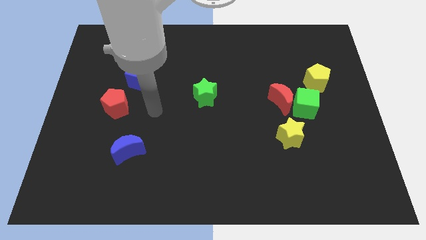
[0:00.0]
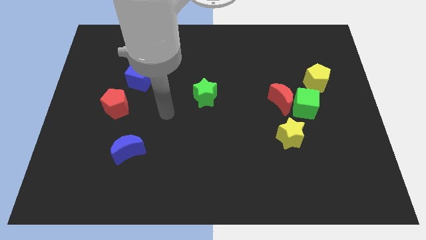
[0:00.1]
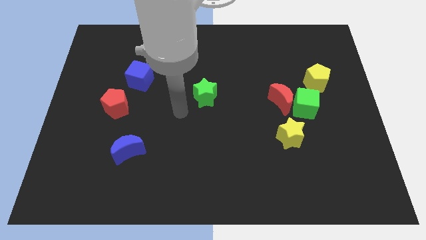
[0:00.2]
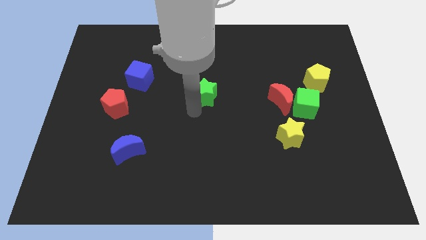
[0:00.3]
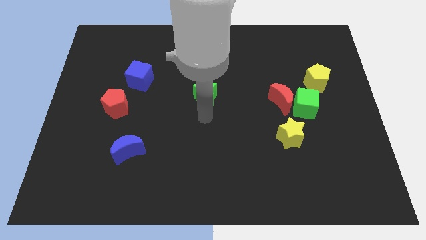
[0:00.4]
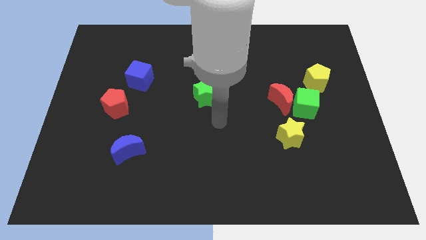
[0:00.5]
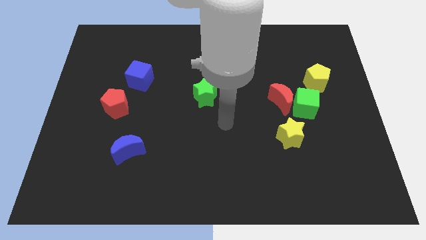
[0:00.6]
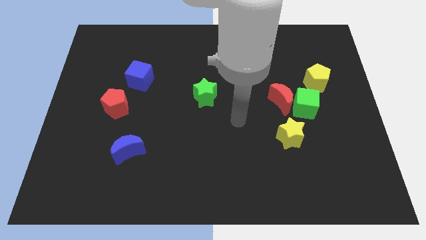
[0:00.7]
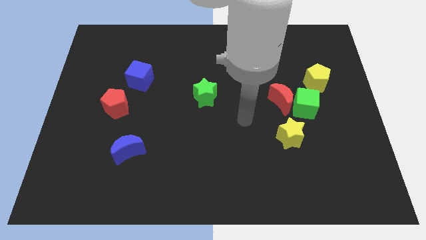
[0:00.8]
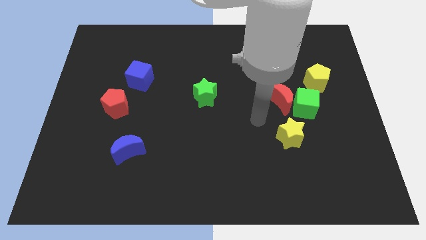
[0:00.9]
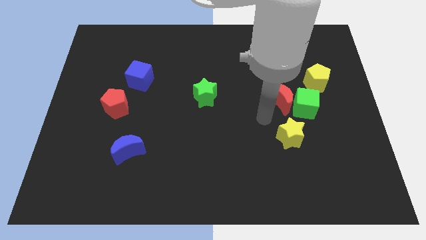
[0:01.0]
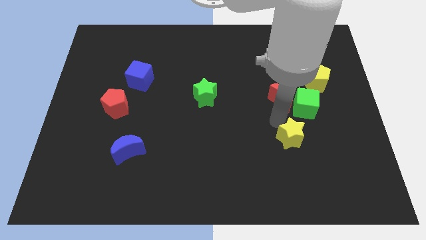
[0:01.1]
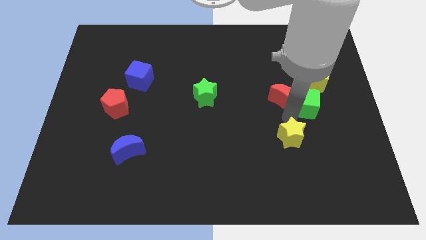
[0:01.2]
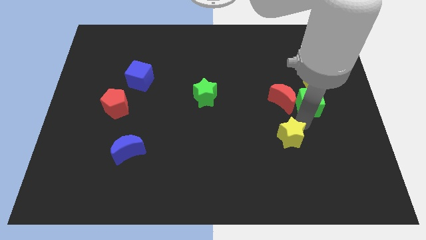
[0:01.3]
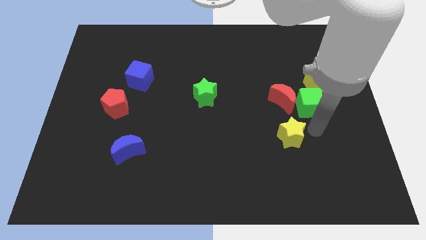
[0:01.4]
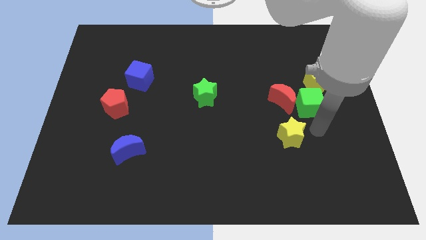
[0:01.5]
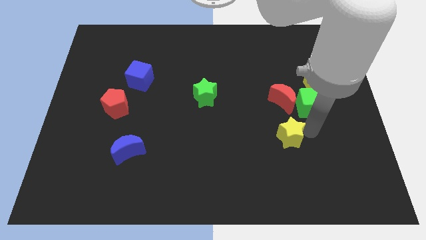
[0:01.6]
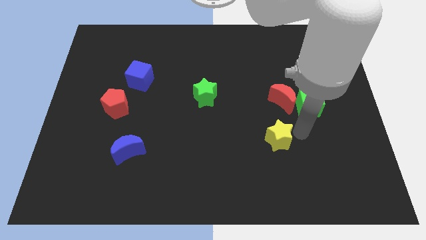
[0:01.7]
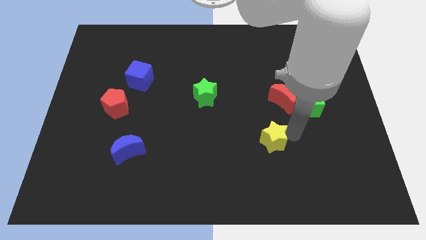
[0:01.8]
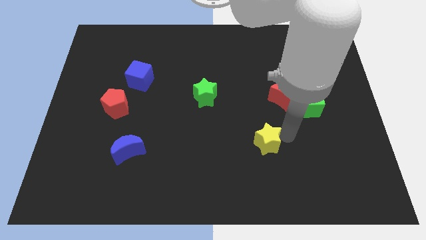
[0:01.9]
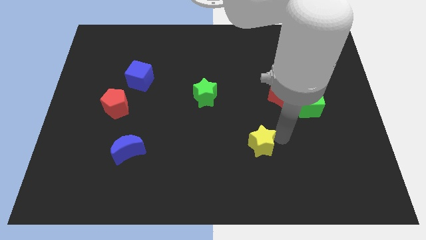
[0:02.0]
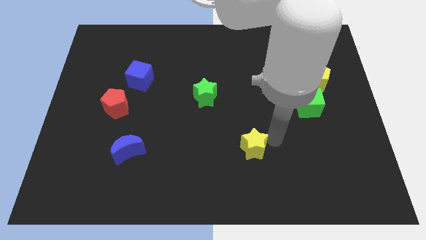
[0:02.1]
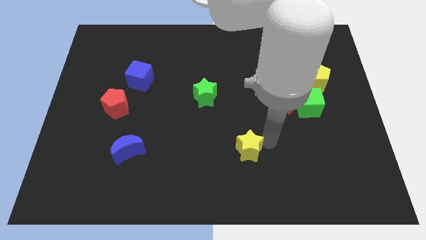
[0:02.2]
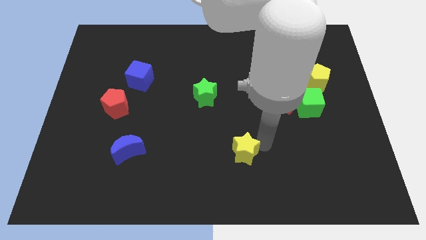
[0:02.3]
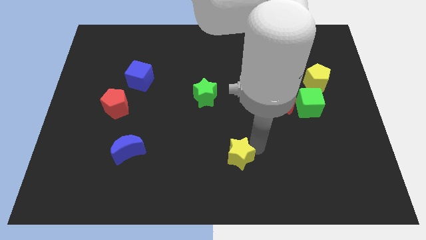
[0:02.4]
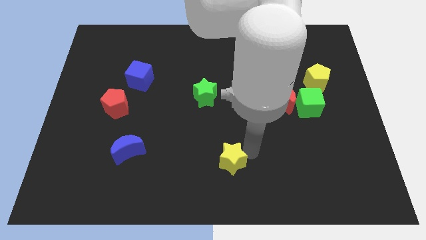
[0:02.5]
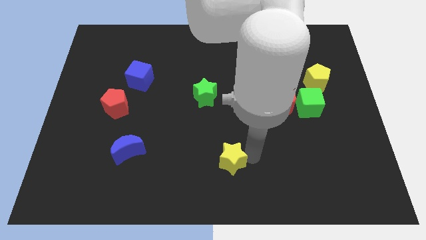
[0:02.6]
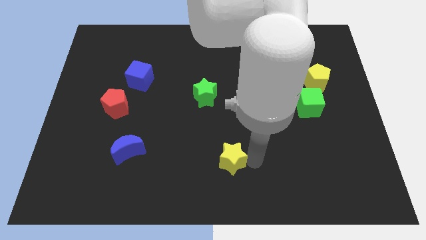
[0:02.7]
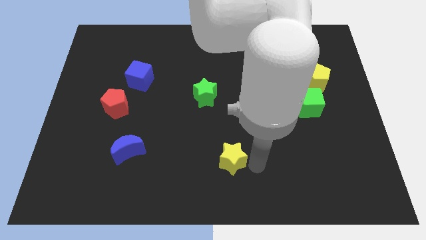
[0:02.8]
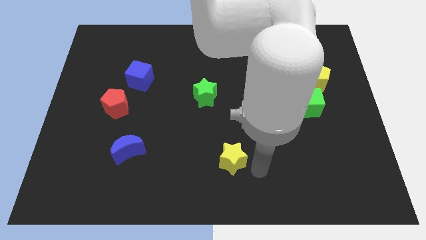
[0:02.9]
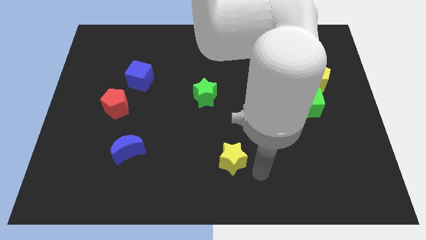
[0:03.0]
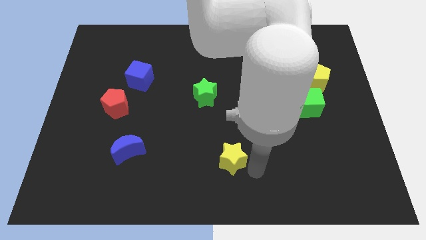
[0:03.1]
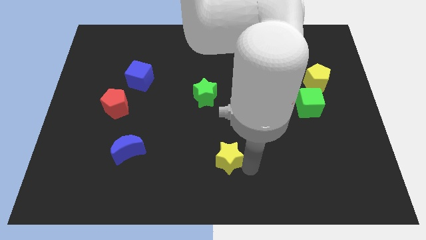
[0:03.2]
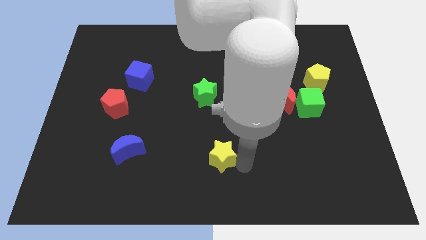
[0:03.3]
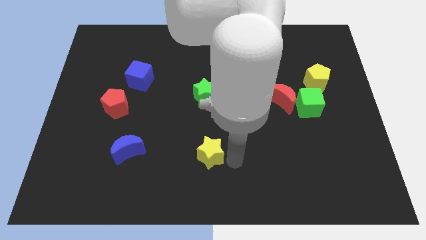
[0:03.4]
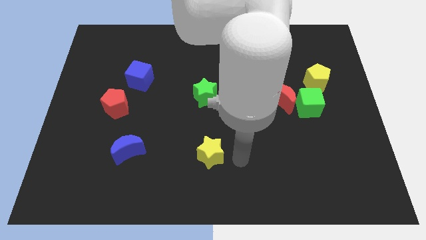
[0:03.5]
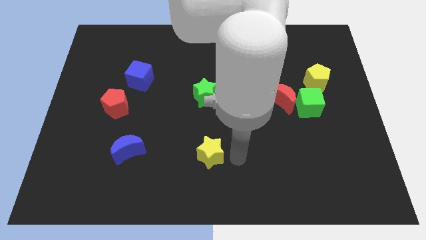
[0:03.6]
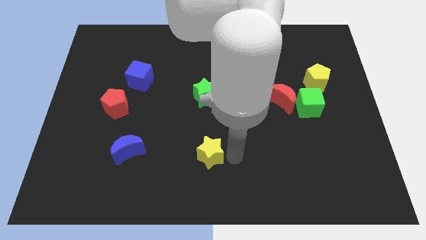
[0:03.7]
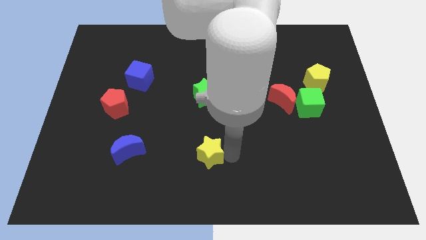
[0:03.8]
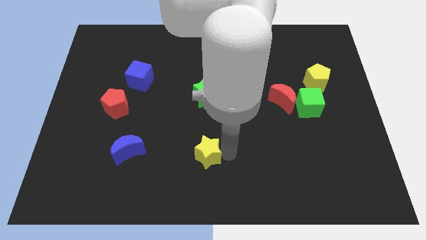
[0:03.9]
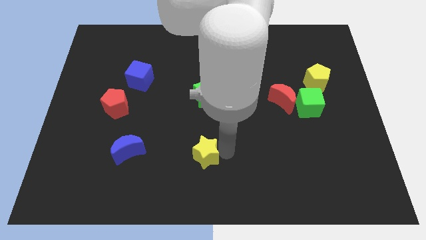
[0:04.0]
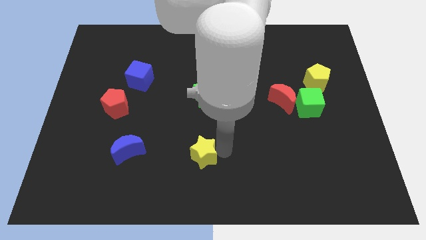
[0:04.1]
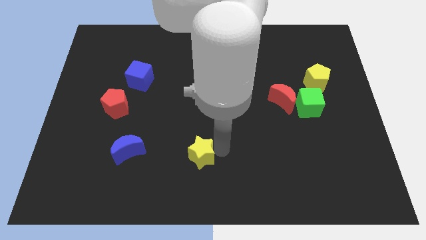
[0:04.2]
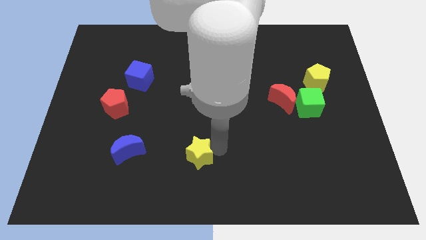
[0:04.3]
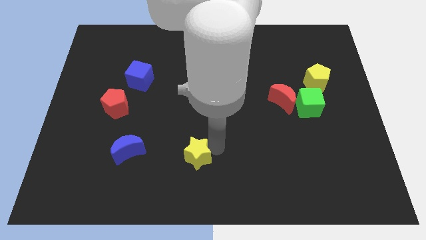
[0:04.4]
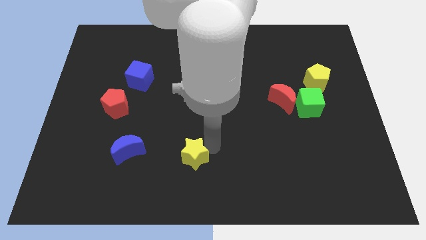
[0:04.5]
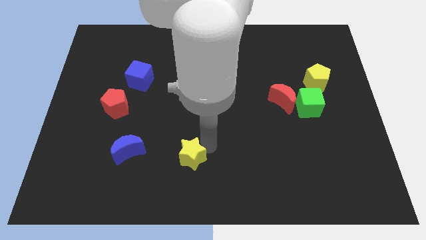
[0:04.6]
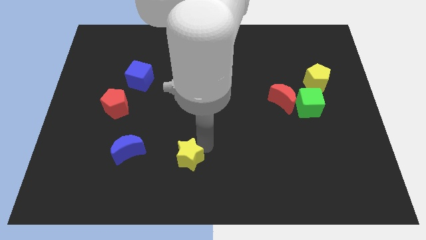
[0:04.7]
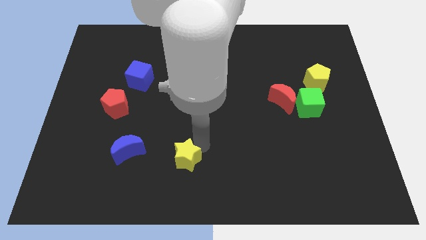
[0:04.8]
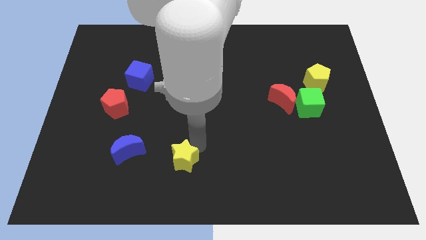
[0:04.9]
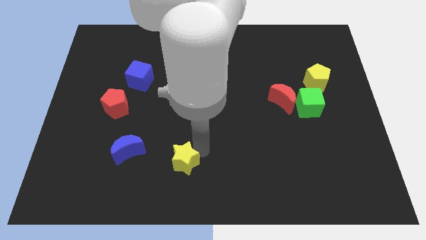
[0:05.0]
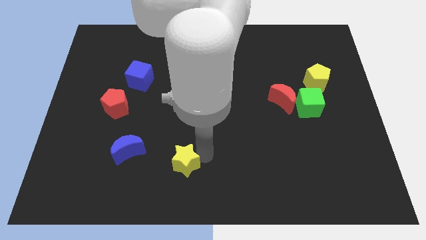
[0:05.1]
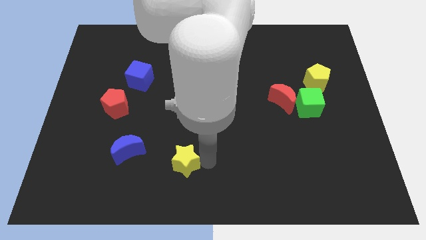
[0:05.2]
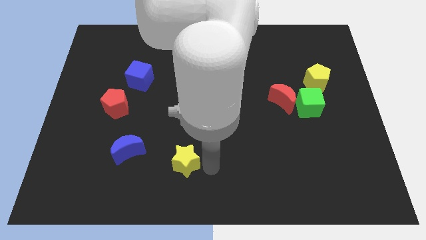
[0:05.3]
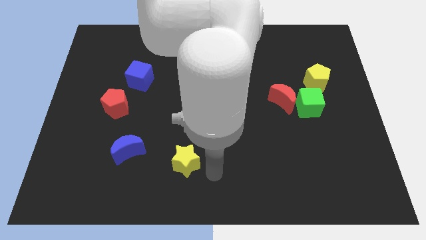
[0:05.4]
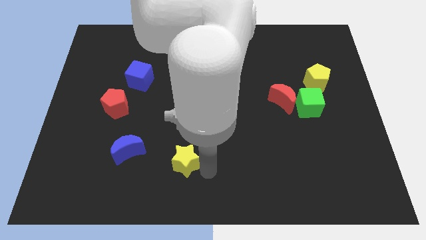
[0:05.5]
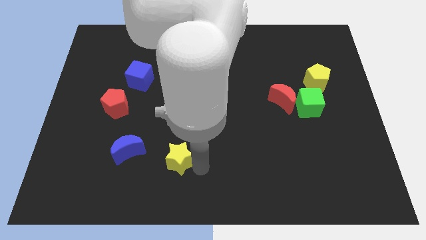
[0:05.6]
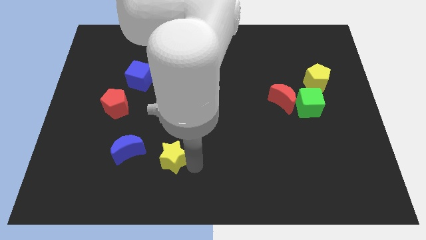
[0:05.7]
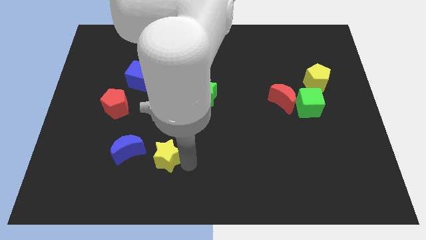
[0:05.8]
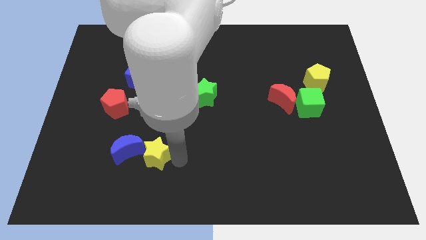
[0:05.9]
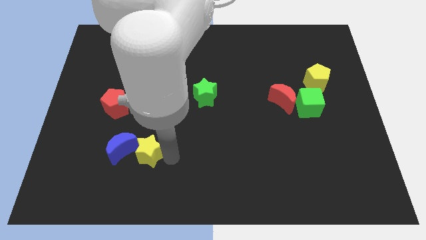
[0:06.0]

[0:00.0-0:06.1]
move the yellow star to the blue moon

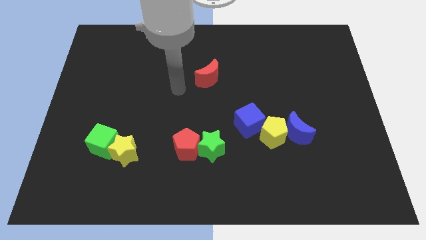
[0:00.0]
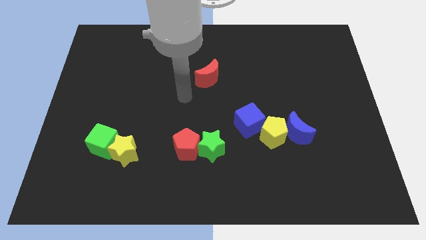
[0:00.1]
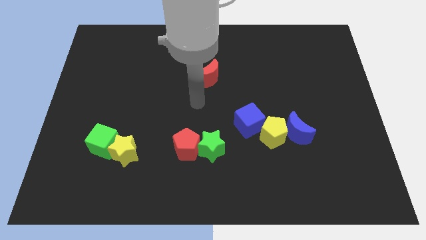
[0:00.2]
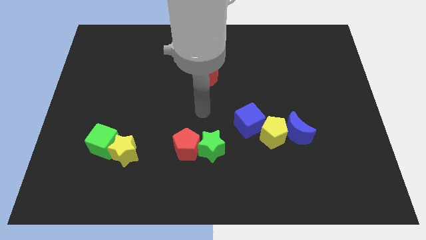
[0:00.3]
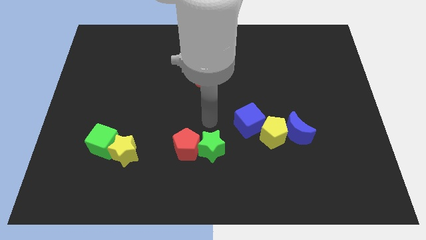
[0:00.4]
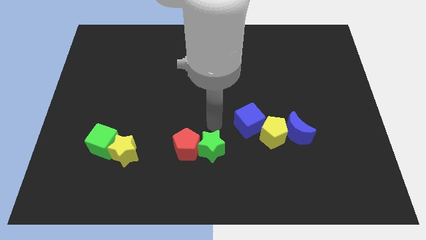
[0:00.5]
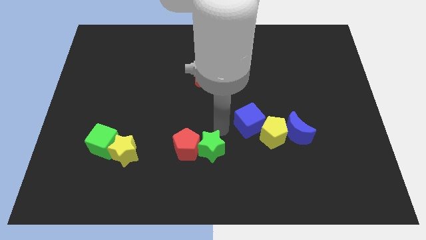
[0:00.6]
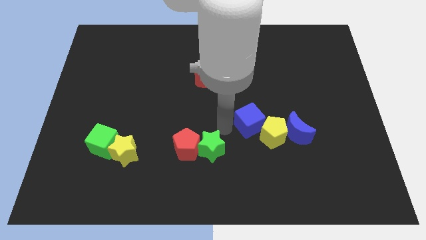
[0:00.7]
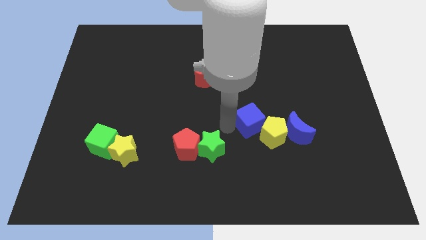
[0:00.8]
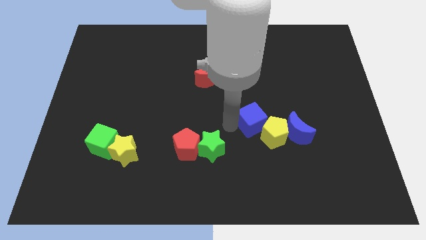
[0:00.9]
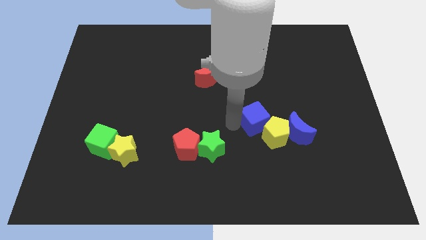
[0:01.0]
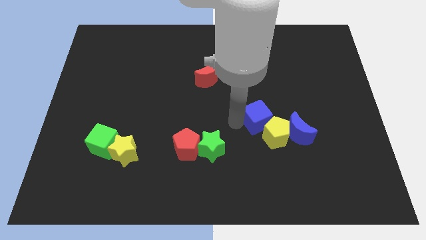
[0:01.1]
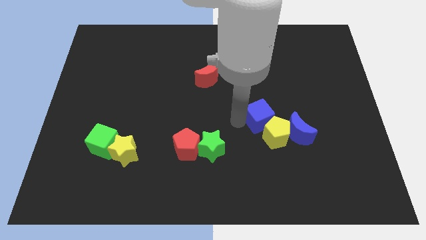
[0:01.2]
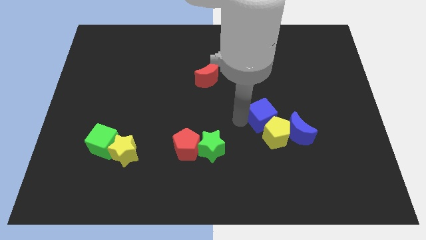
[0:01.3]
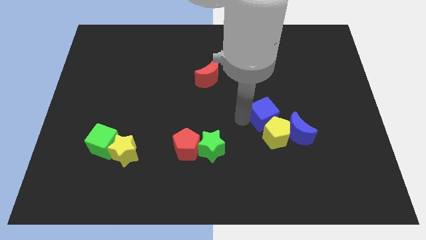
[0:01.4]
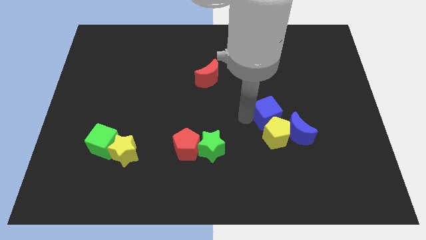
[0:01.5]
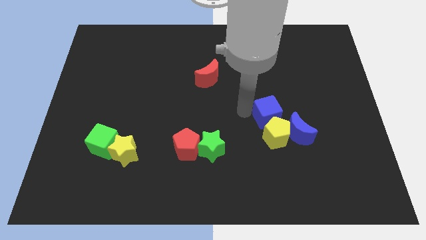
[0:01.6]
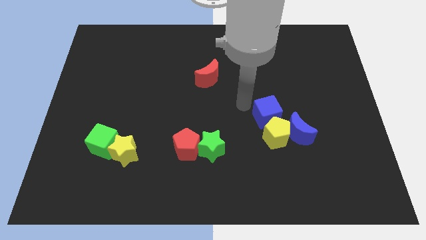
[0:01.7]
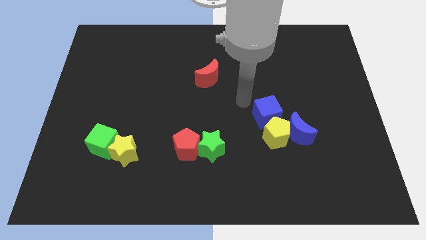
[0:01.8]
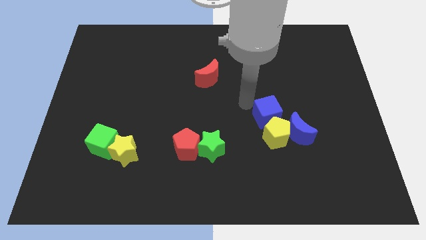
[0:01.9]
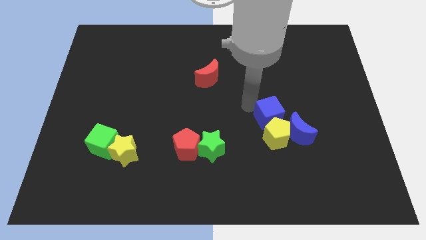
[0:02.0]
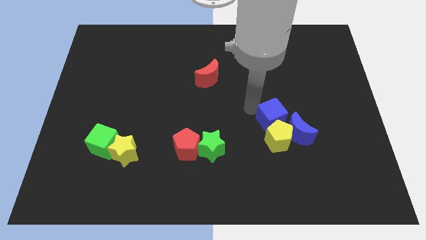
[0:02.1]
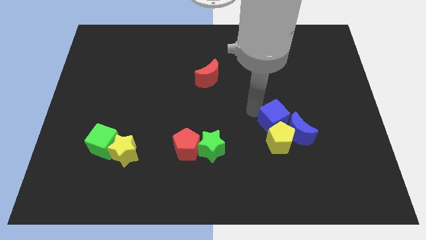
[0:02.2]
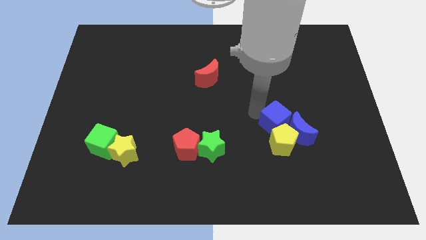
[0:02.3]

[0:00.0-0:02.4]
put the blue cube towards the blue moon
